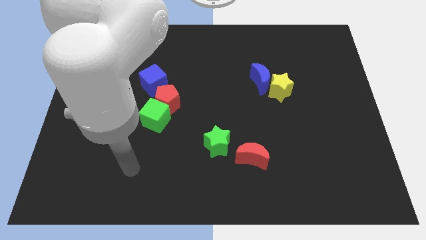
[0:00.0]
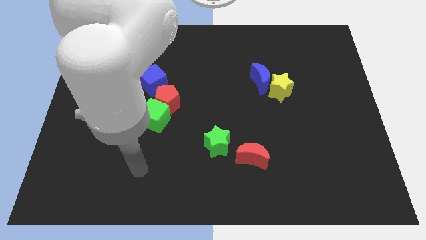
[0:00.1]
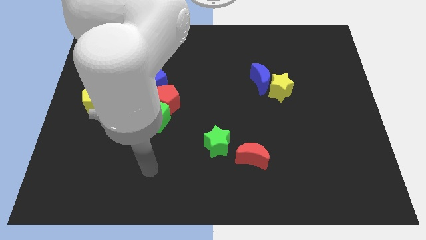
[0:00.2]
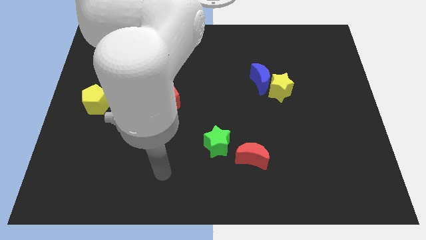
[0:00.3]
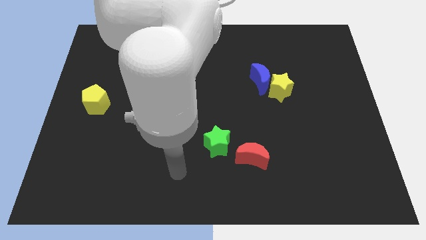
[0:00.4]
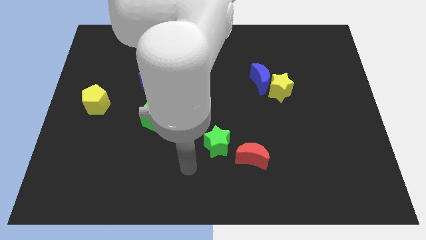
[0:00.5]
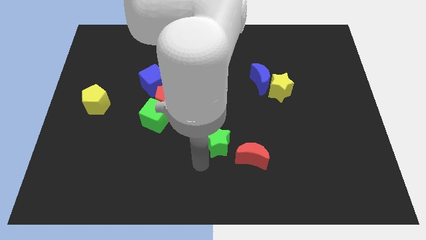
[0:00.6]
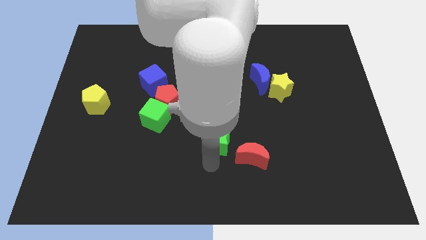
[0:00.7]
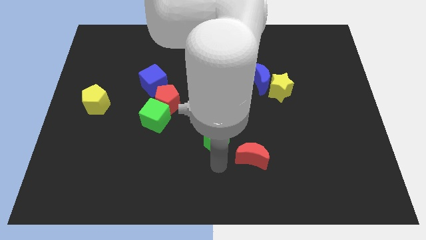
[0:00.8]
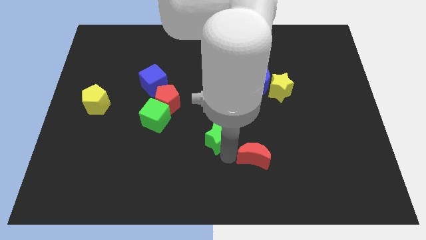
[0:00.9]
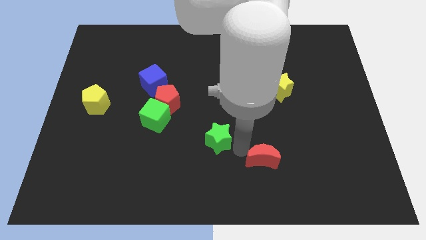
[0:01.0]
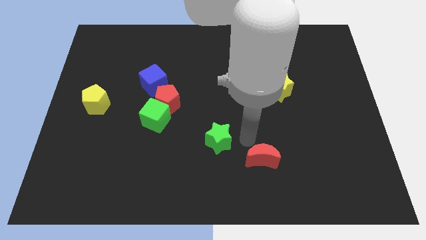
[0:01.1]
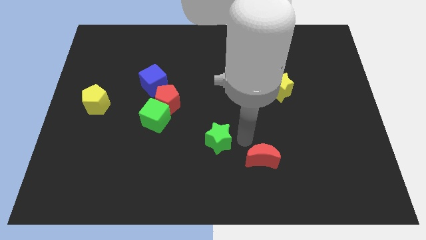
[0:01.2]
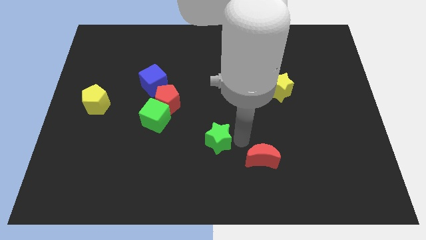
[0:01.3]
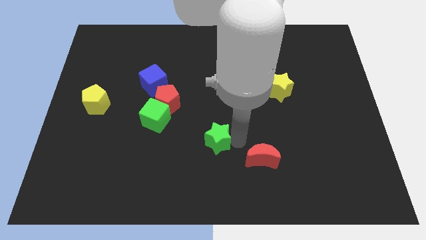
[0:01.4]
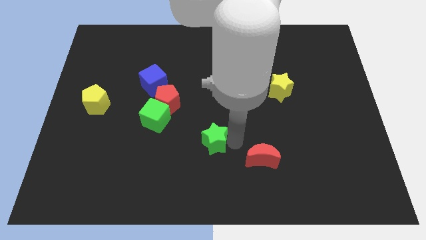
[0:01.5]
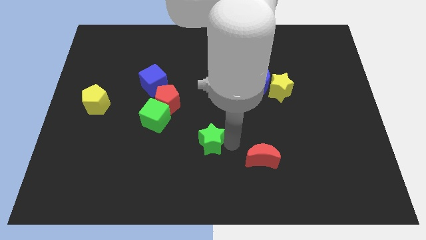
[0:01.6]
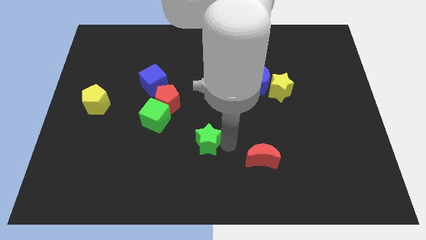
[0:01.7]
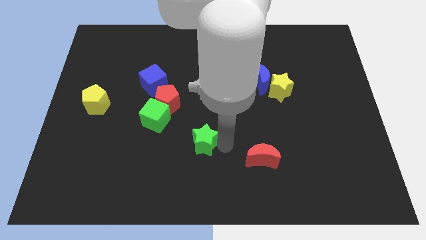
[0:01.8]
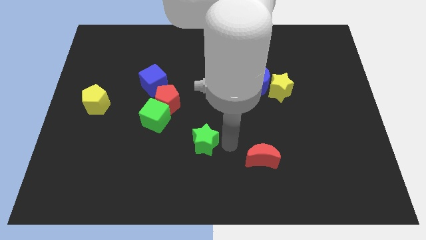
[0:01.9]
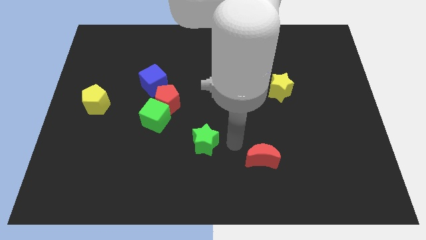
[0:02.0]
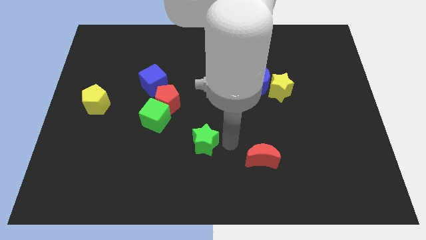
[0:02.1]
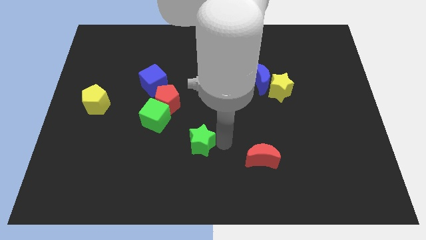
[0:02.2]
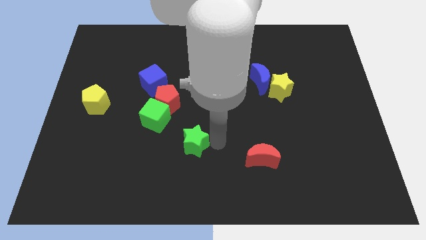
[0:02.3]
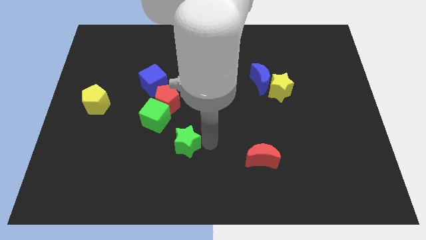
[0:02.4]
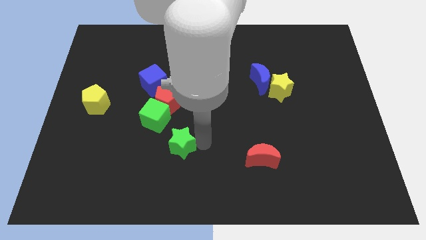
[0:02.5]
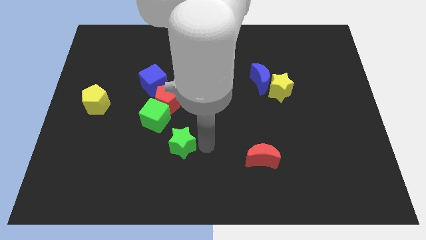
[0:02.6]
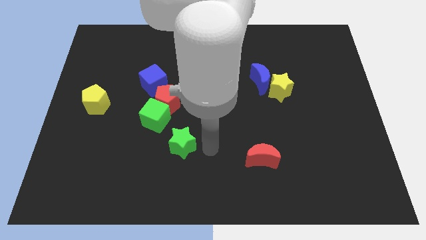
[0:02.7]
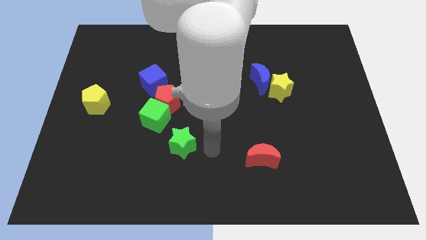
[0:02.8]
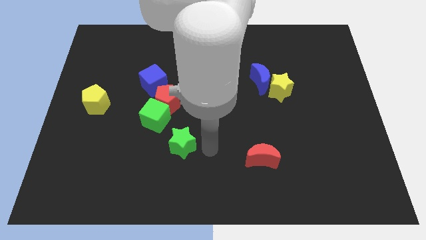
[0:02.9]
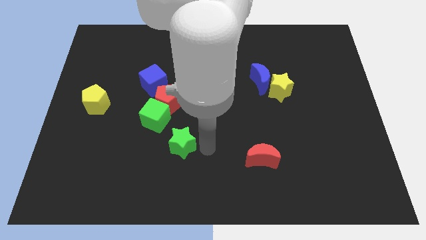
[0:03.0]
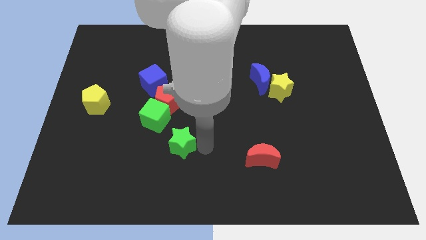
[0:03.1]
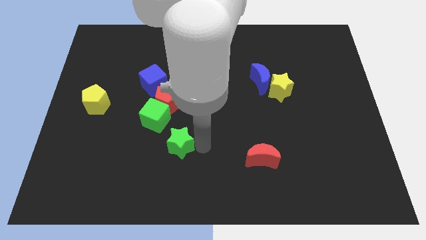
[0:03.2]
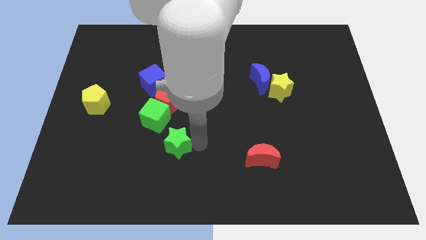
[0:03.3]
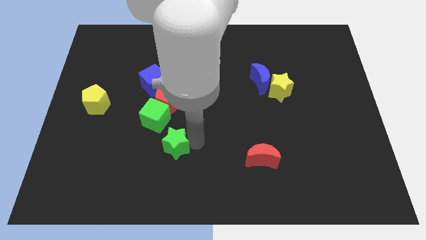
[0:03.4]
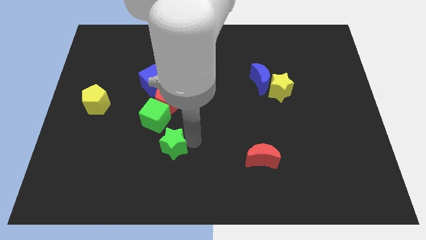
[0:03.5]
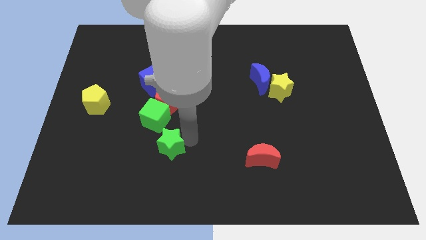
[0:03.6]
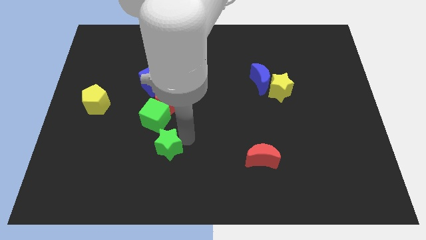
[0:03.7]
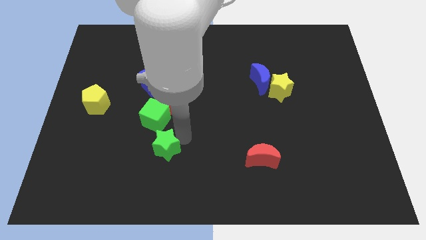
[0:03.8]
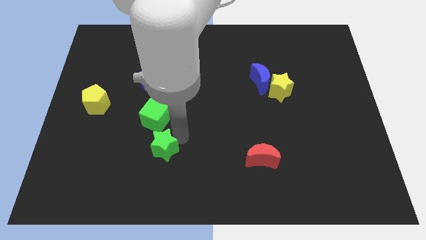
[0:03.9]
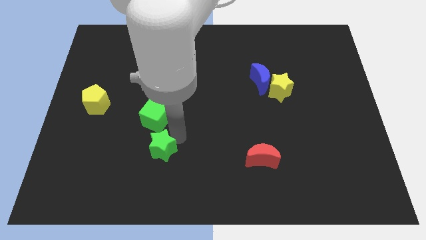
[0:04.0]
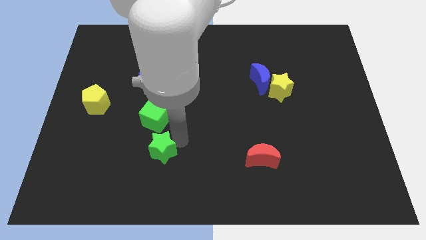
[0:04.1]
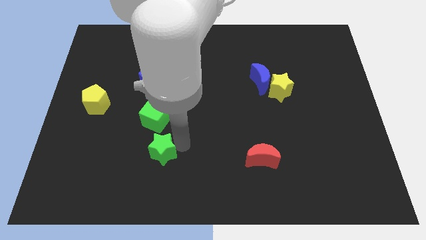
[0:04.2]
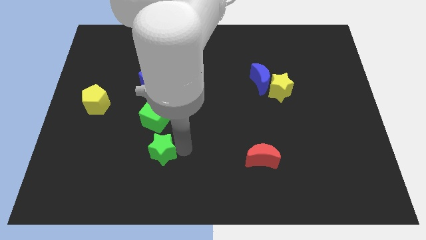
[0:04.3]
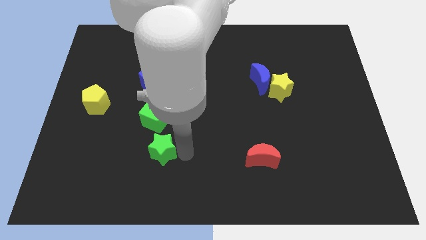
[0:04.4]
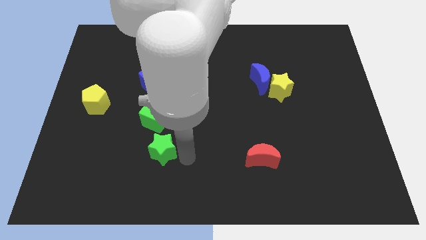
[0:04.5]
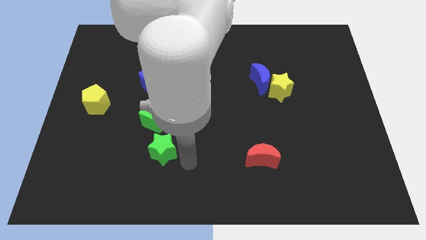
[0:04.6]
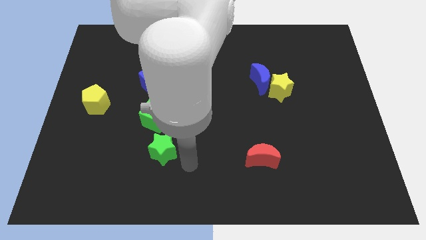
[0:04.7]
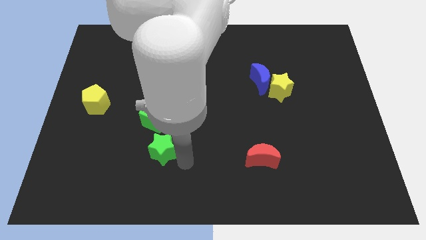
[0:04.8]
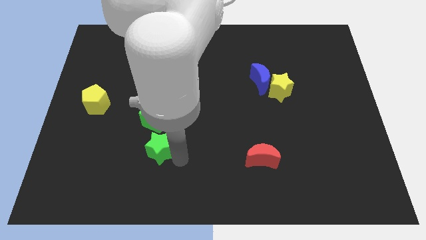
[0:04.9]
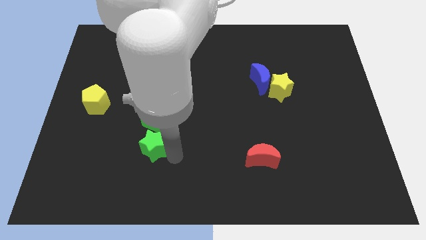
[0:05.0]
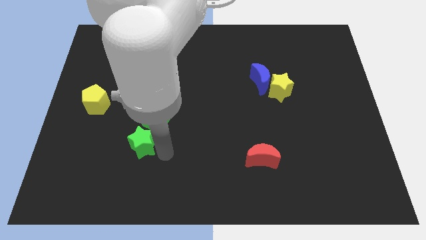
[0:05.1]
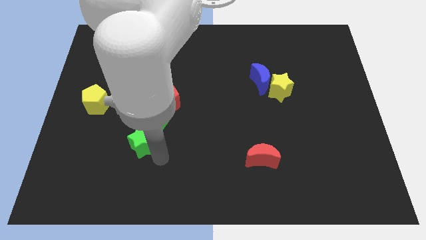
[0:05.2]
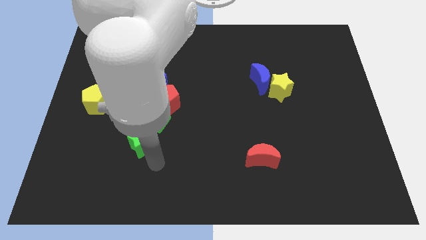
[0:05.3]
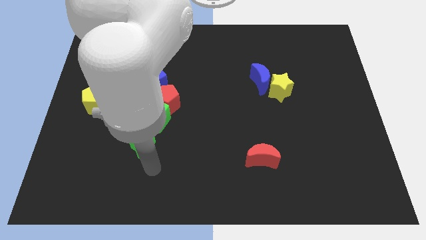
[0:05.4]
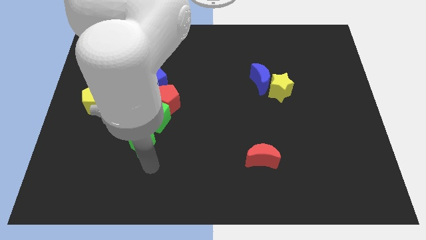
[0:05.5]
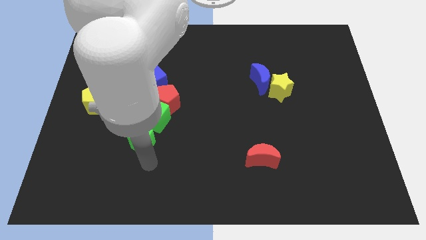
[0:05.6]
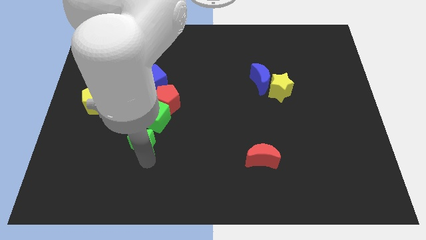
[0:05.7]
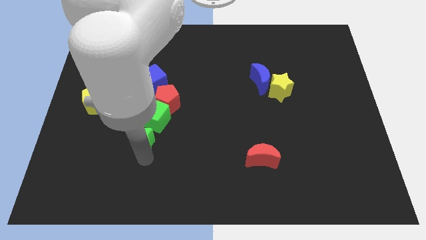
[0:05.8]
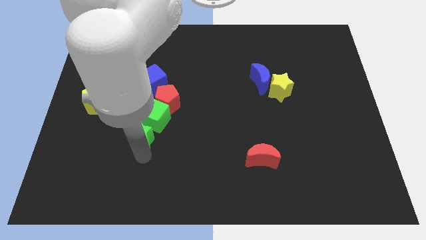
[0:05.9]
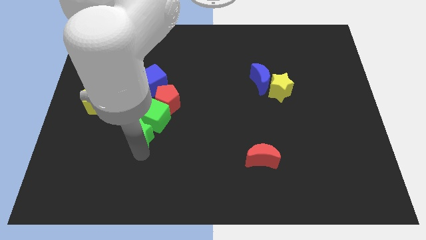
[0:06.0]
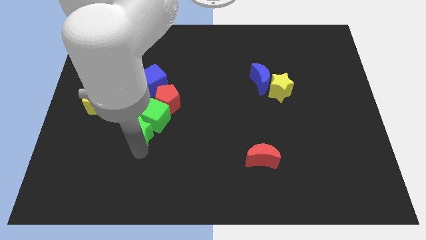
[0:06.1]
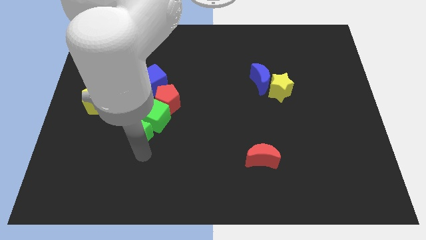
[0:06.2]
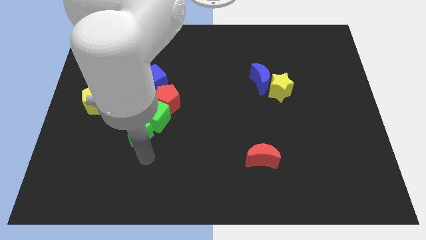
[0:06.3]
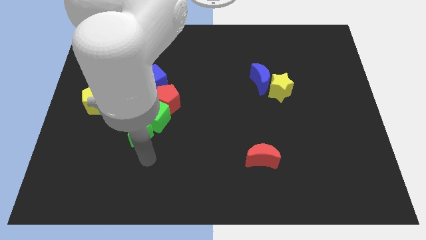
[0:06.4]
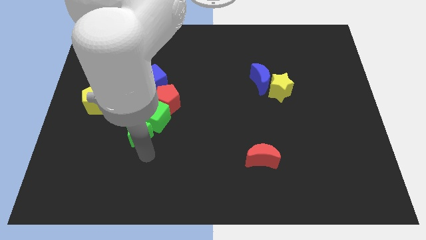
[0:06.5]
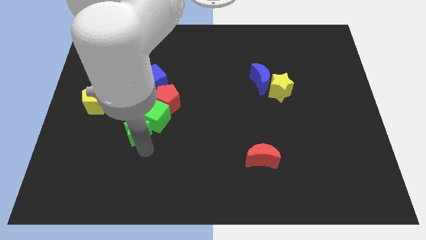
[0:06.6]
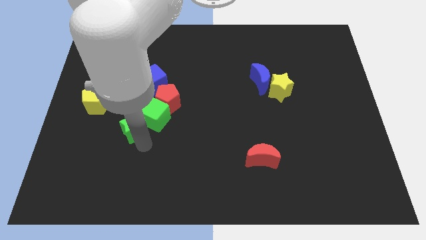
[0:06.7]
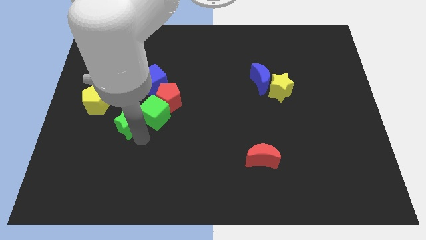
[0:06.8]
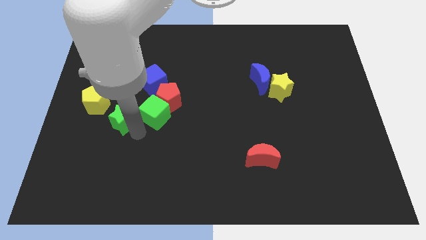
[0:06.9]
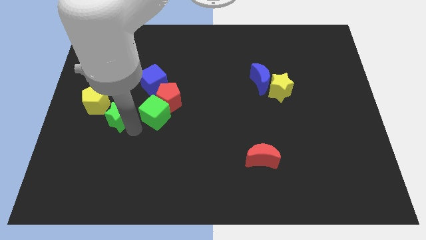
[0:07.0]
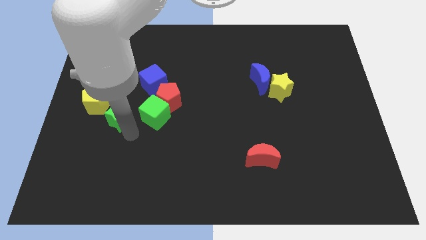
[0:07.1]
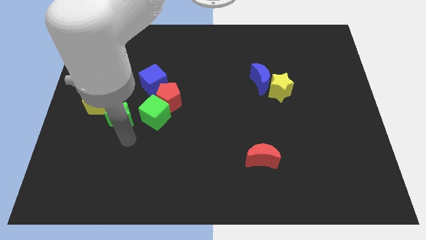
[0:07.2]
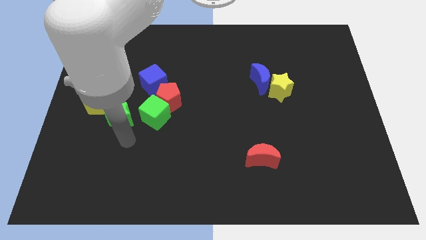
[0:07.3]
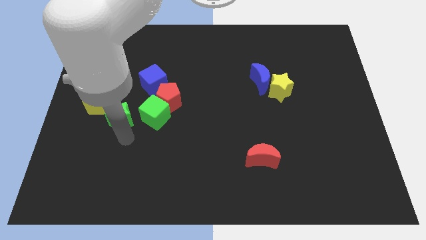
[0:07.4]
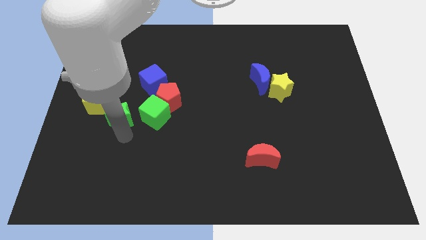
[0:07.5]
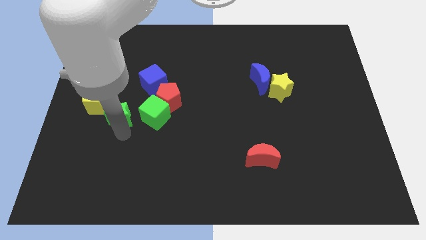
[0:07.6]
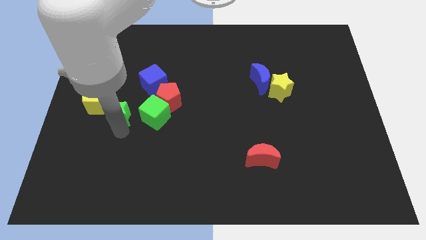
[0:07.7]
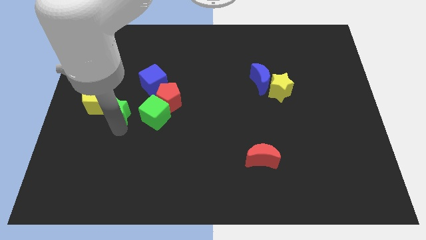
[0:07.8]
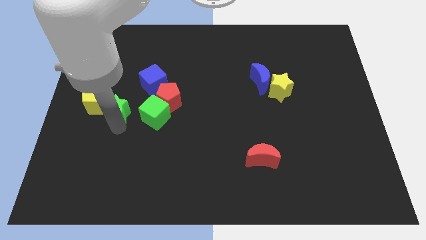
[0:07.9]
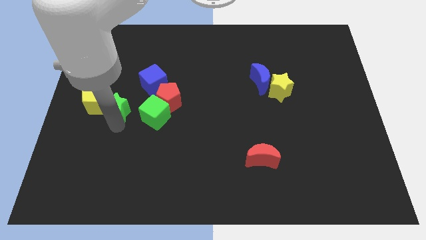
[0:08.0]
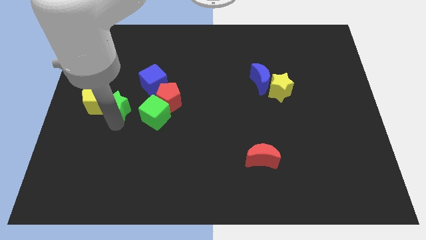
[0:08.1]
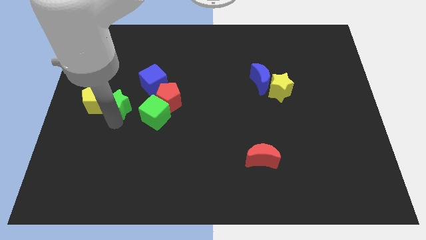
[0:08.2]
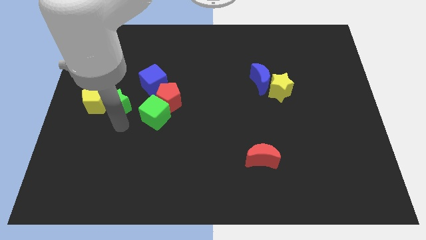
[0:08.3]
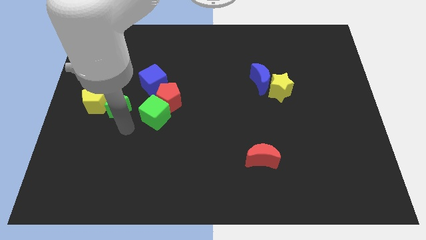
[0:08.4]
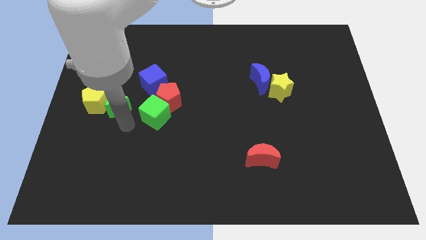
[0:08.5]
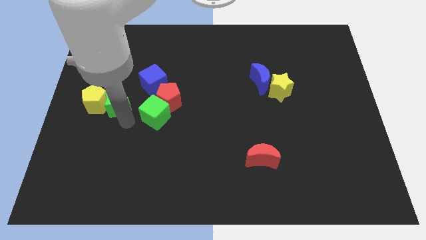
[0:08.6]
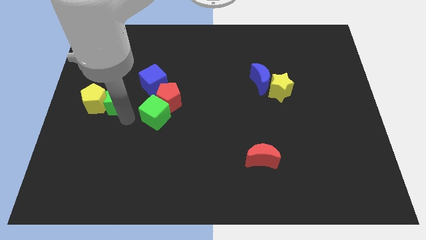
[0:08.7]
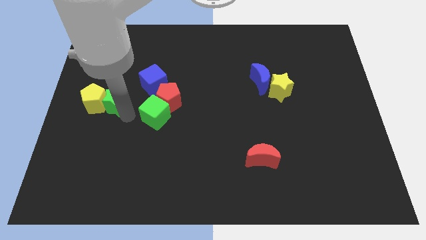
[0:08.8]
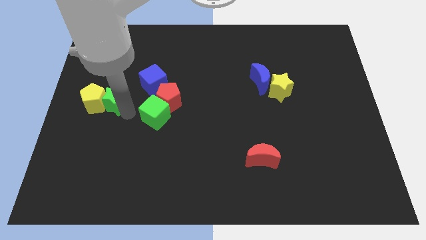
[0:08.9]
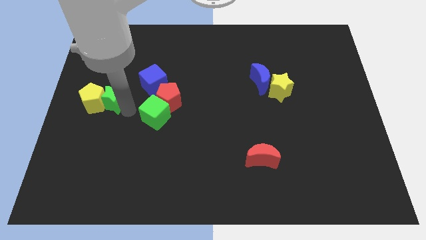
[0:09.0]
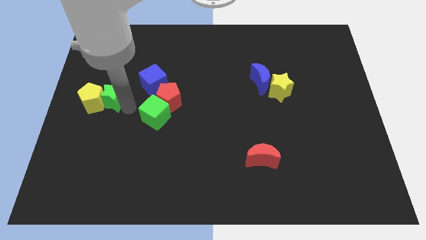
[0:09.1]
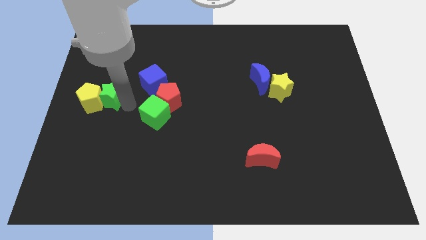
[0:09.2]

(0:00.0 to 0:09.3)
slide the green star to the left side of the blue cube
